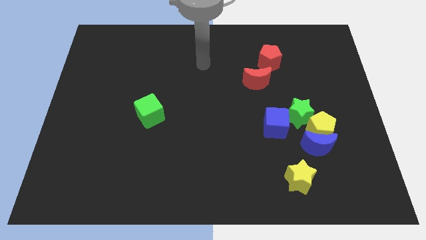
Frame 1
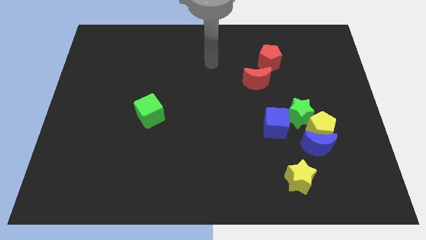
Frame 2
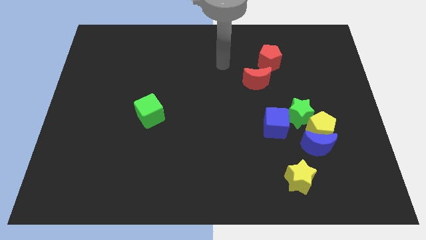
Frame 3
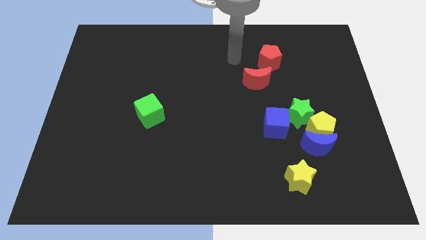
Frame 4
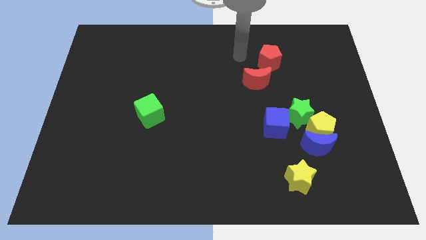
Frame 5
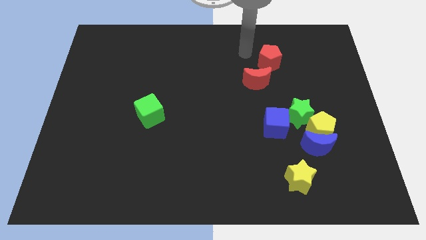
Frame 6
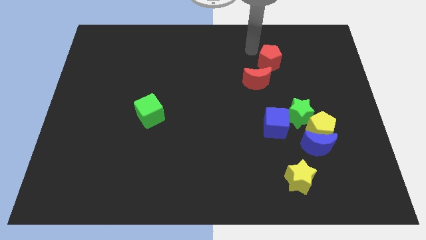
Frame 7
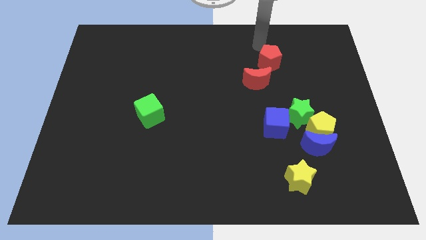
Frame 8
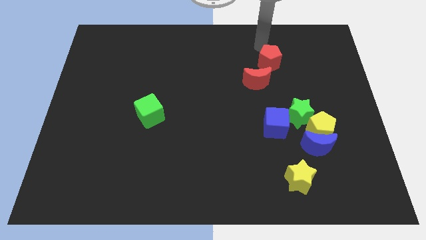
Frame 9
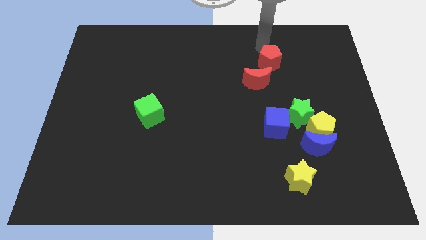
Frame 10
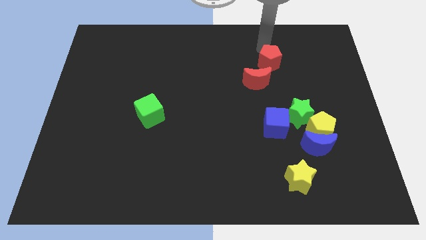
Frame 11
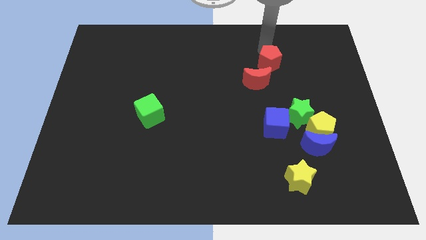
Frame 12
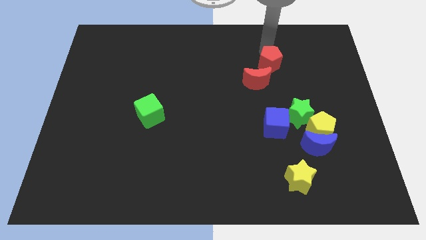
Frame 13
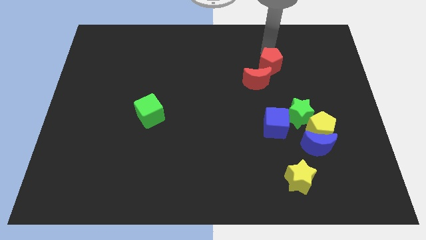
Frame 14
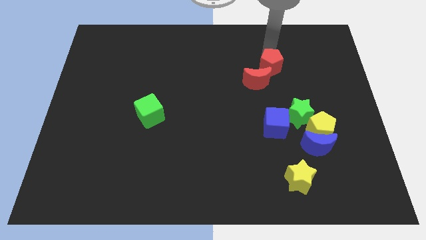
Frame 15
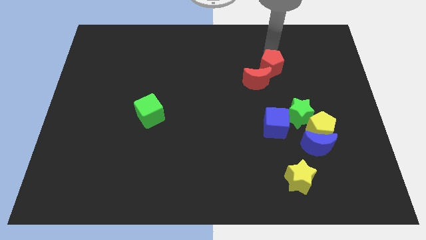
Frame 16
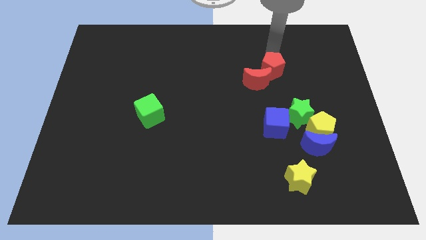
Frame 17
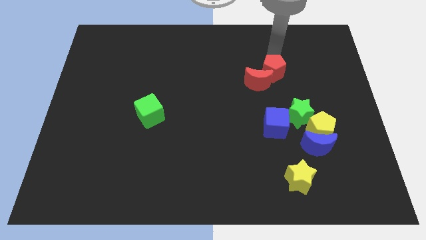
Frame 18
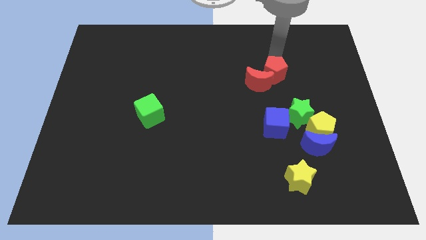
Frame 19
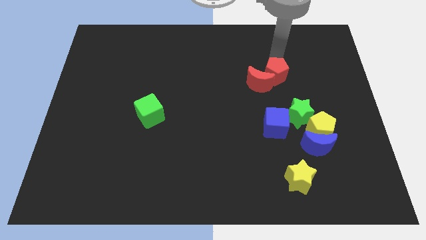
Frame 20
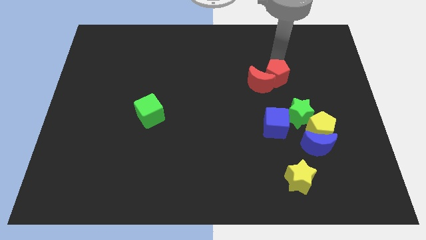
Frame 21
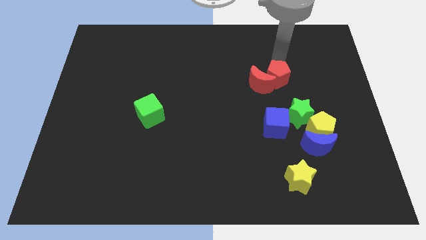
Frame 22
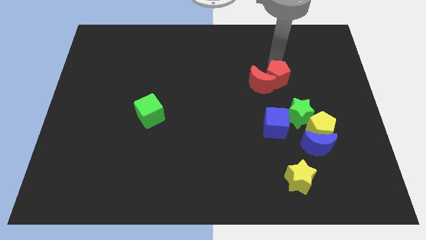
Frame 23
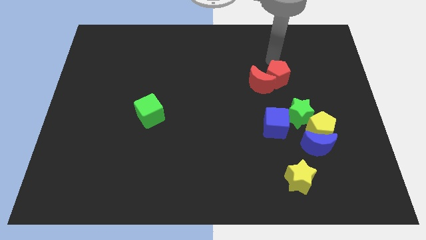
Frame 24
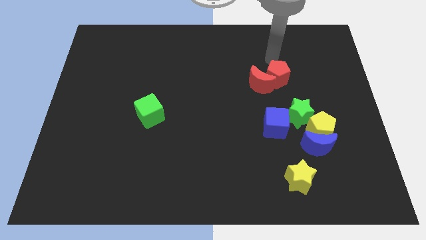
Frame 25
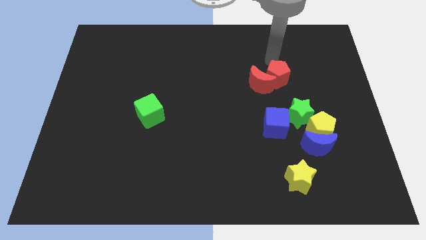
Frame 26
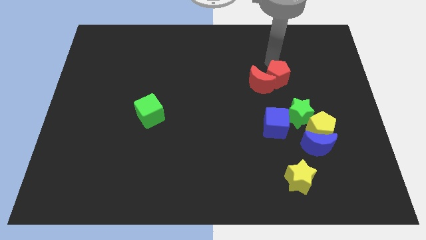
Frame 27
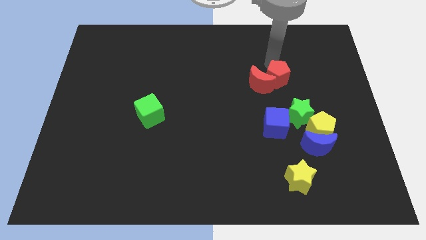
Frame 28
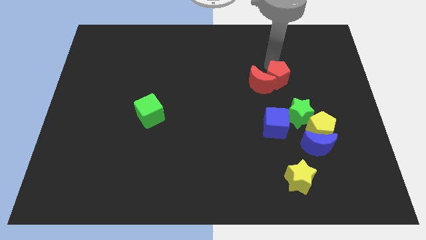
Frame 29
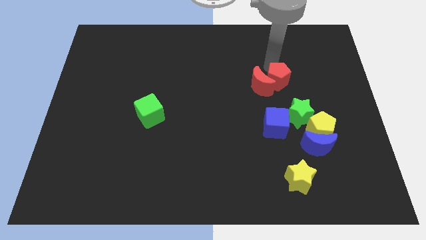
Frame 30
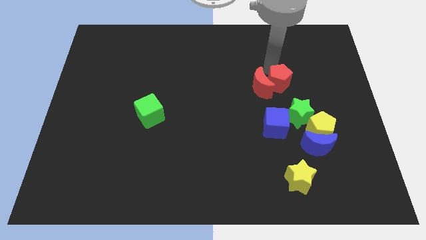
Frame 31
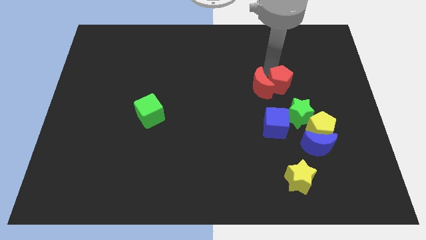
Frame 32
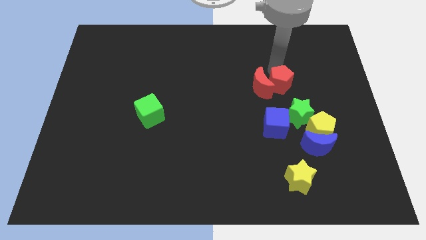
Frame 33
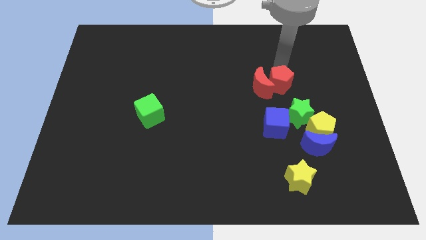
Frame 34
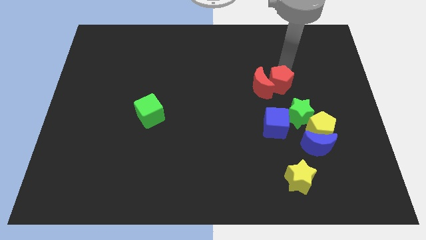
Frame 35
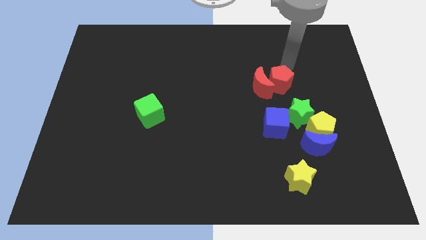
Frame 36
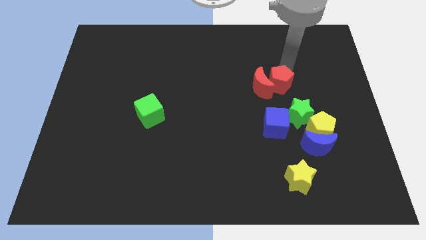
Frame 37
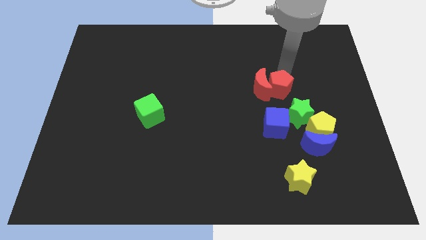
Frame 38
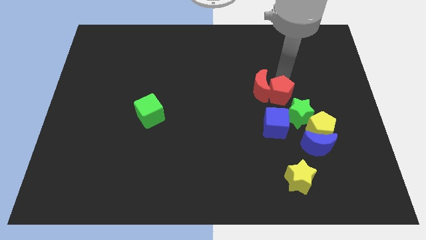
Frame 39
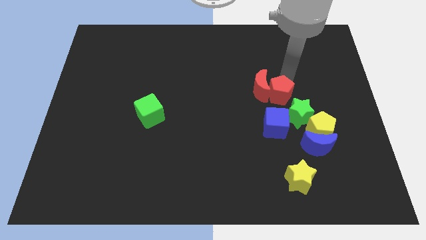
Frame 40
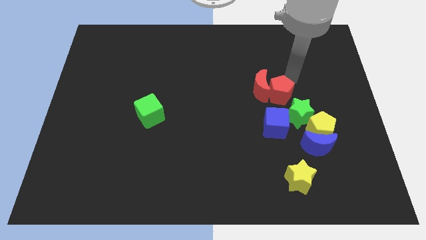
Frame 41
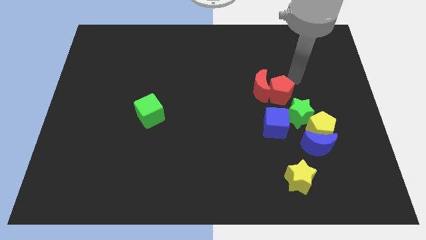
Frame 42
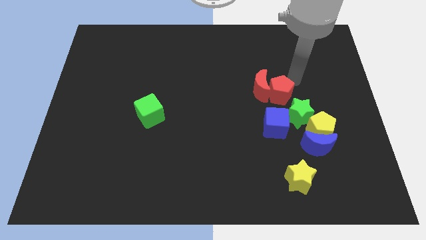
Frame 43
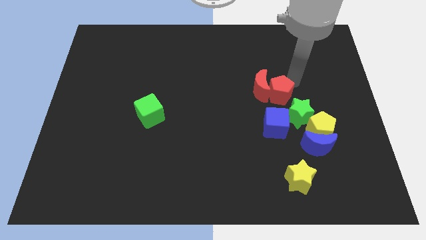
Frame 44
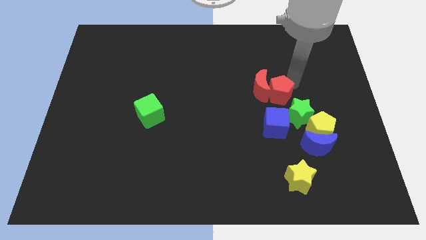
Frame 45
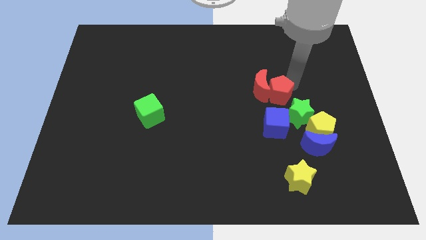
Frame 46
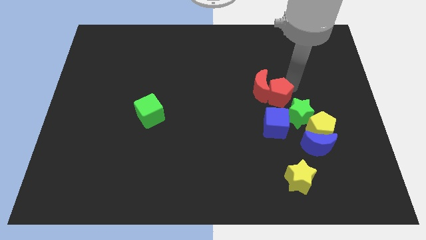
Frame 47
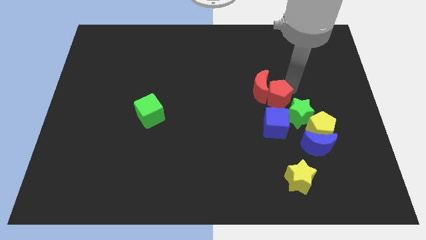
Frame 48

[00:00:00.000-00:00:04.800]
move the red pentagon to the bottom side of the red moon

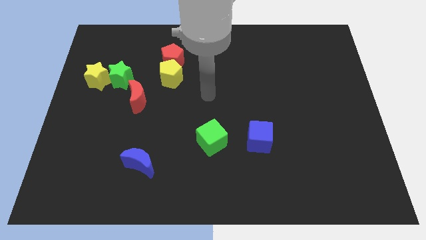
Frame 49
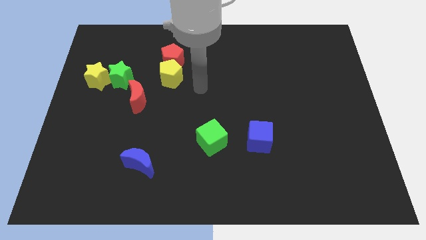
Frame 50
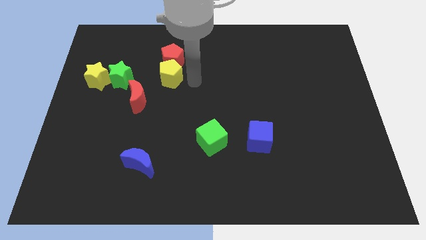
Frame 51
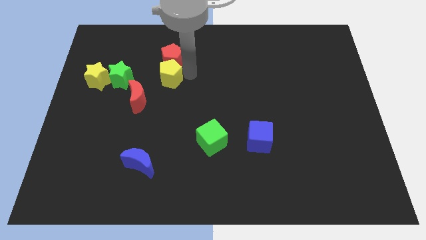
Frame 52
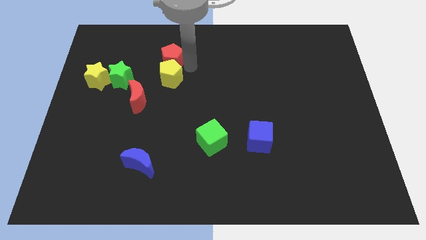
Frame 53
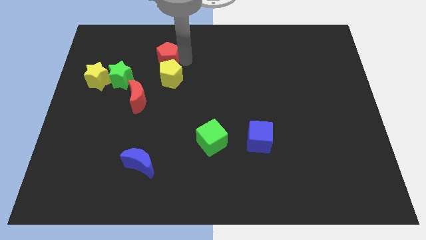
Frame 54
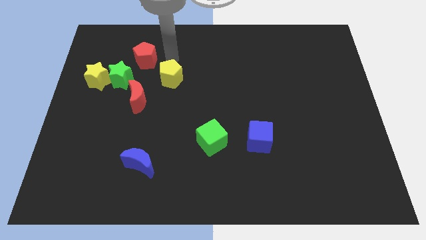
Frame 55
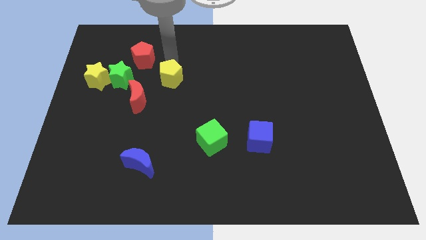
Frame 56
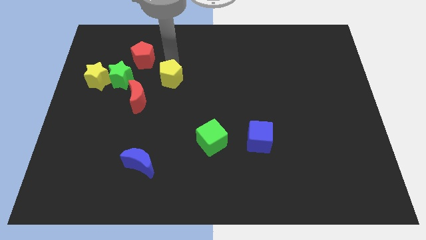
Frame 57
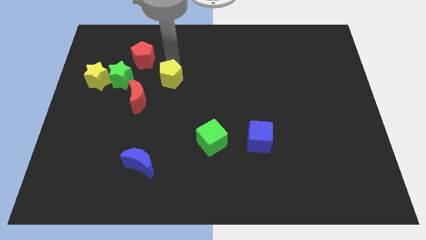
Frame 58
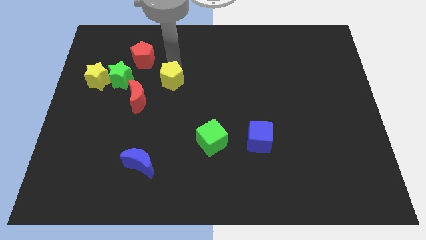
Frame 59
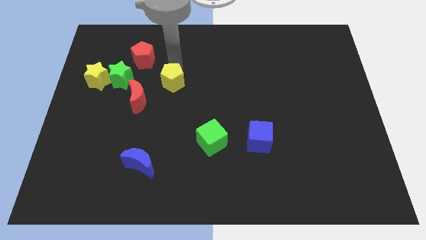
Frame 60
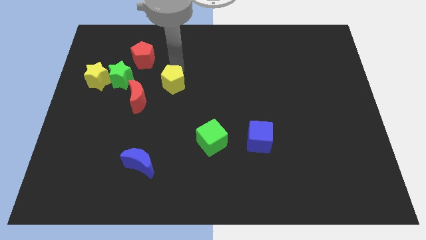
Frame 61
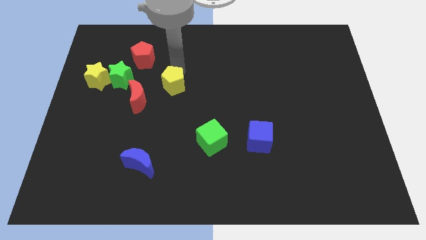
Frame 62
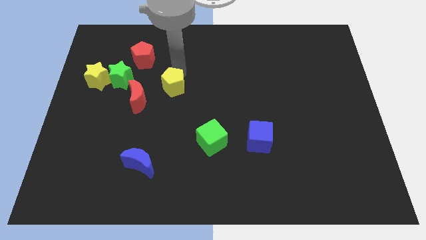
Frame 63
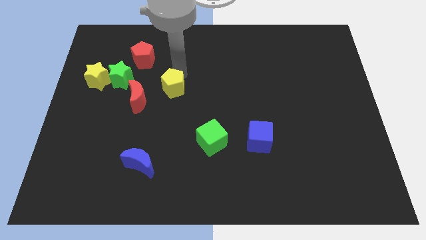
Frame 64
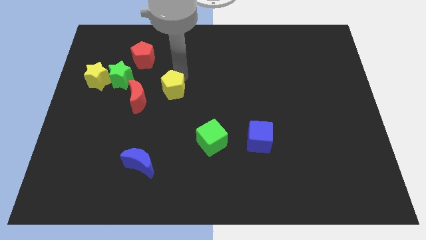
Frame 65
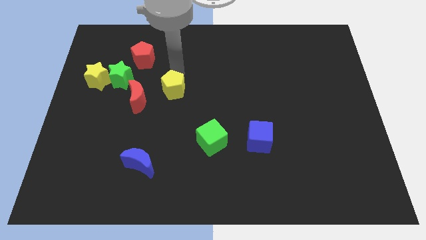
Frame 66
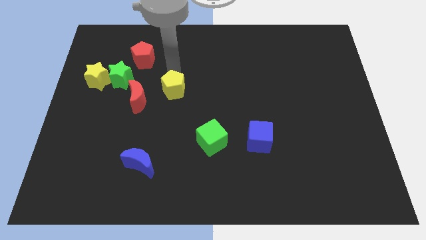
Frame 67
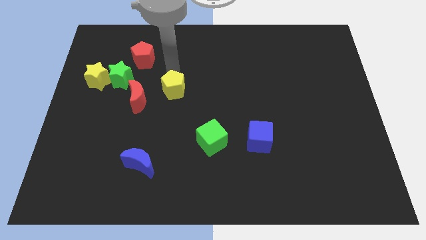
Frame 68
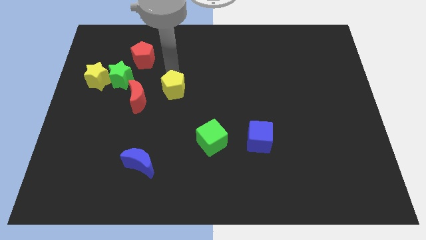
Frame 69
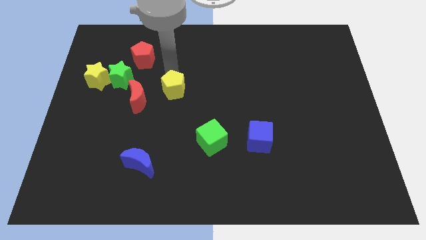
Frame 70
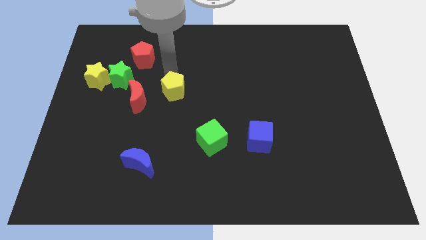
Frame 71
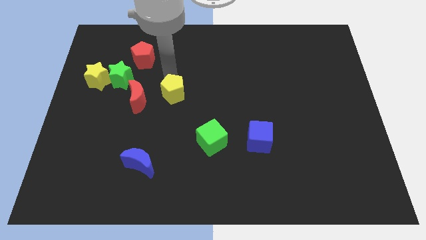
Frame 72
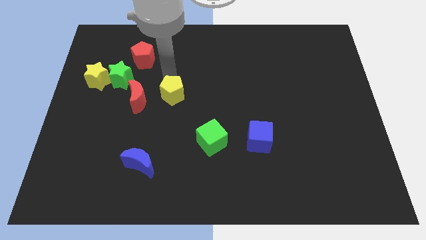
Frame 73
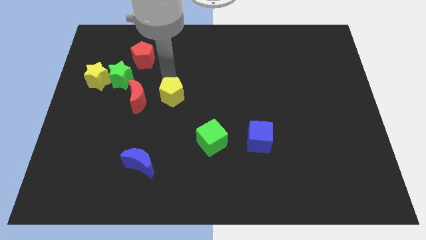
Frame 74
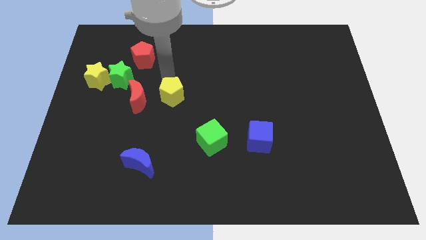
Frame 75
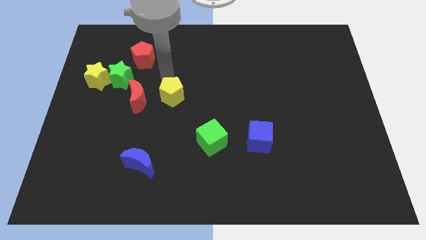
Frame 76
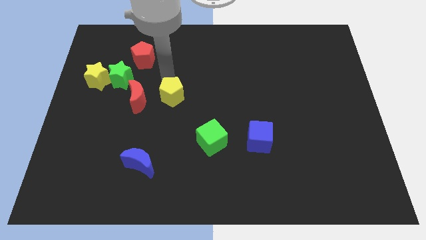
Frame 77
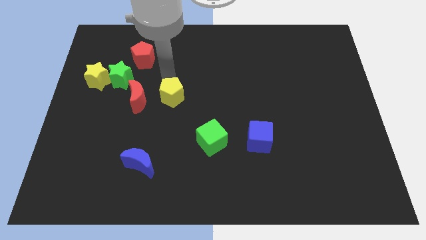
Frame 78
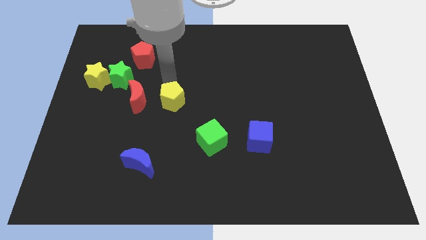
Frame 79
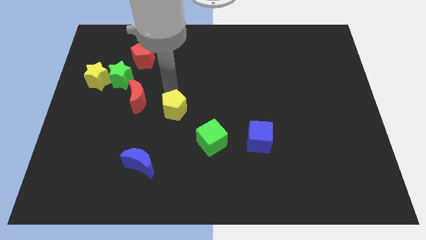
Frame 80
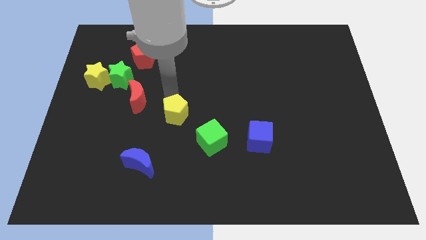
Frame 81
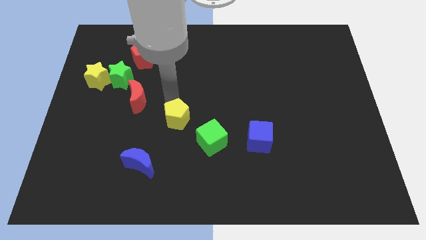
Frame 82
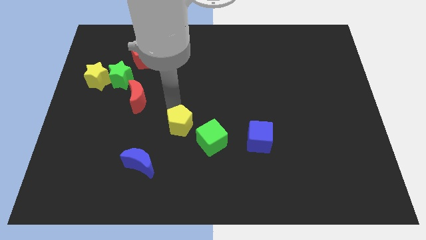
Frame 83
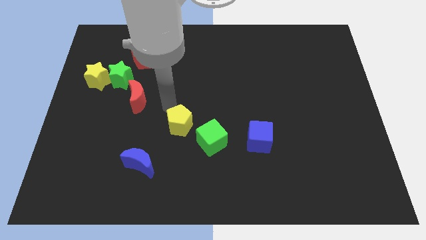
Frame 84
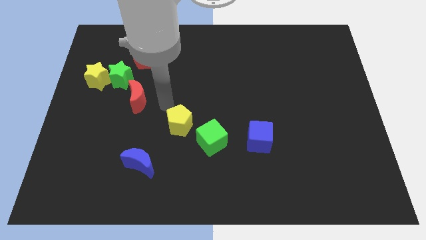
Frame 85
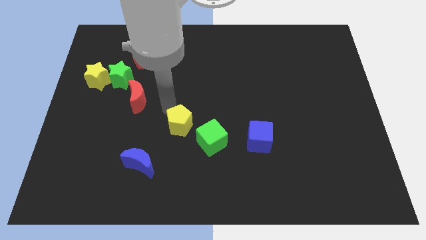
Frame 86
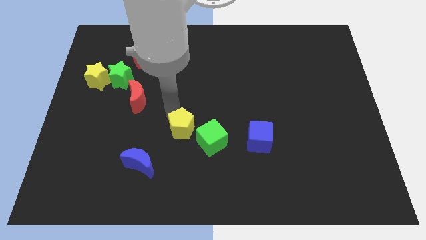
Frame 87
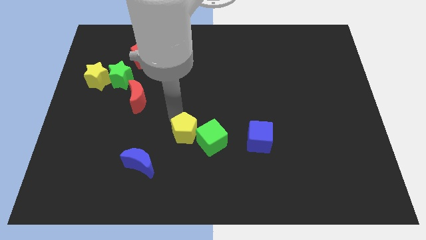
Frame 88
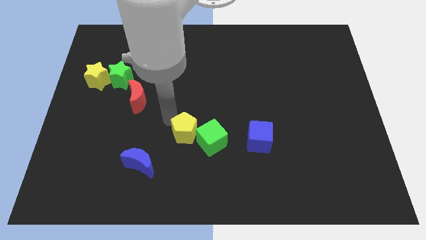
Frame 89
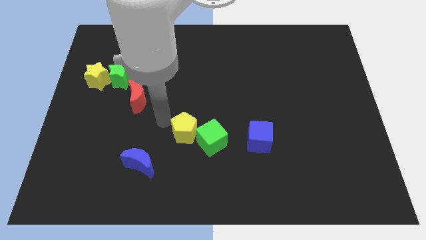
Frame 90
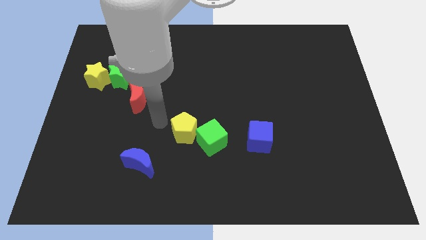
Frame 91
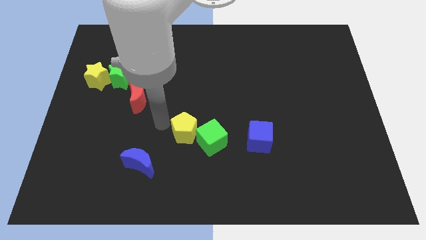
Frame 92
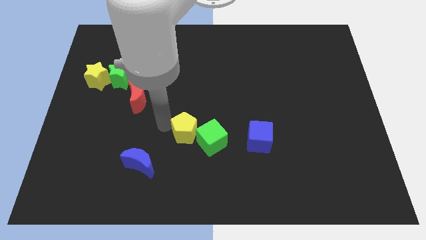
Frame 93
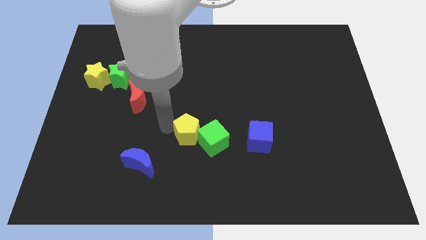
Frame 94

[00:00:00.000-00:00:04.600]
put the yellow pentagon just left of the blue cube
